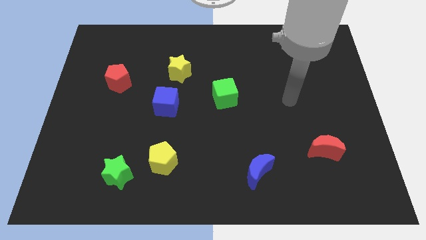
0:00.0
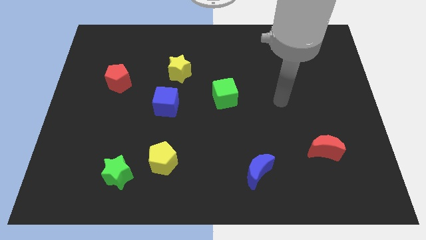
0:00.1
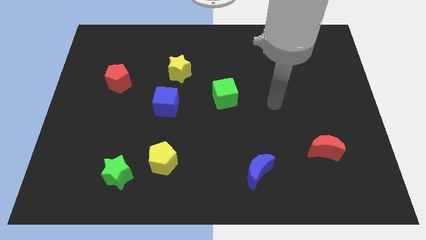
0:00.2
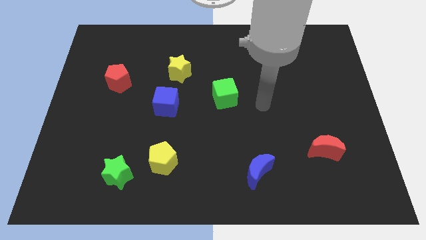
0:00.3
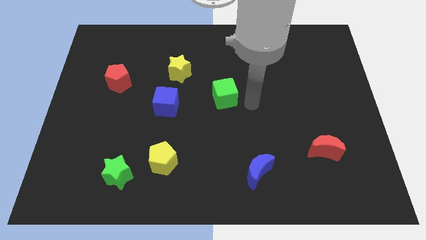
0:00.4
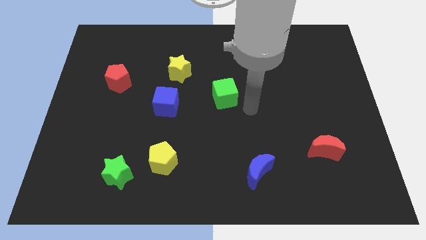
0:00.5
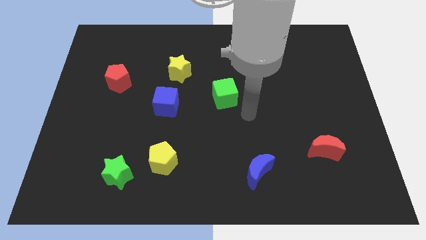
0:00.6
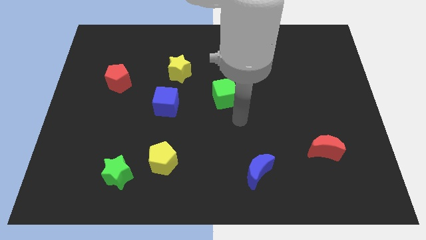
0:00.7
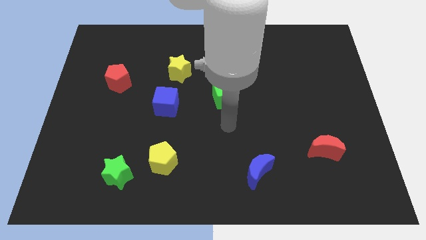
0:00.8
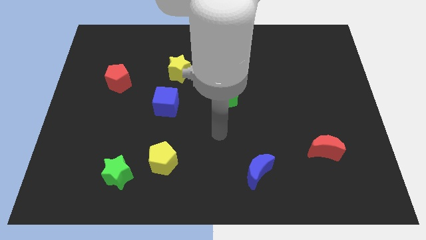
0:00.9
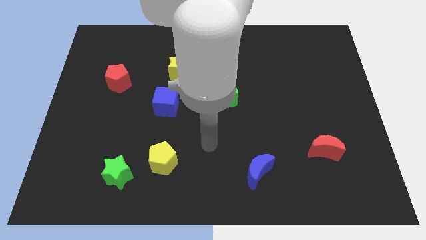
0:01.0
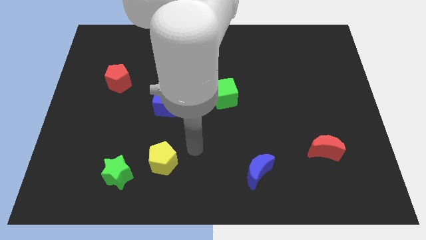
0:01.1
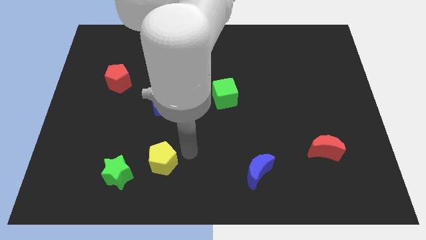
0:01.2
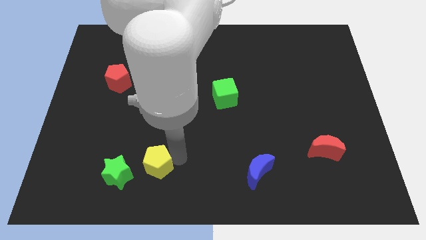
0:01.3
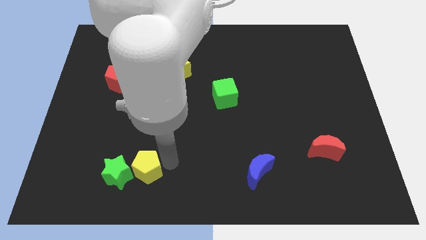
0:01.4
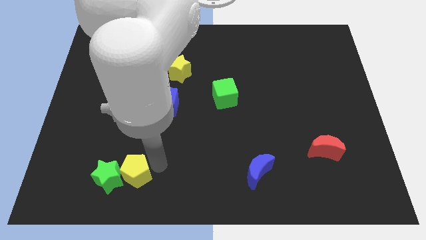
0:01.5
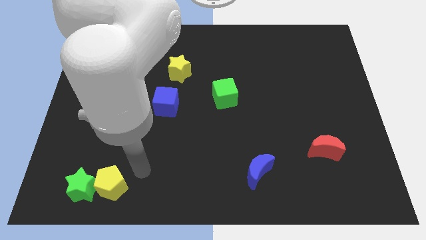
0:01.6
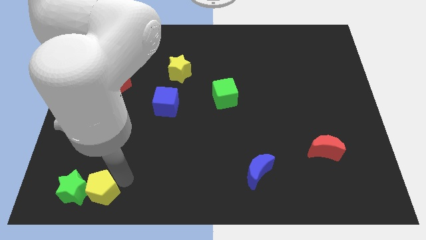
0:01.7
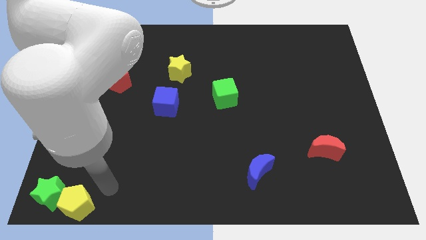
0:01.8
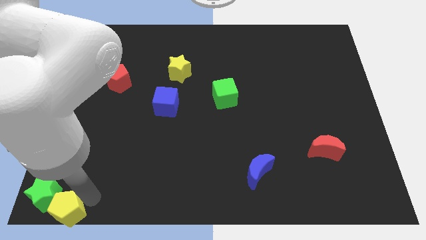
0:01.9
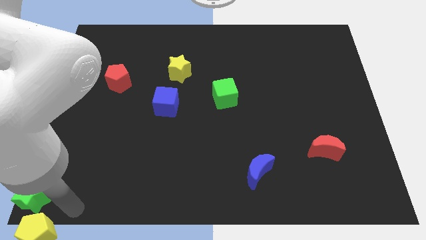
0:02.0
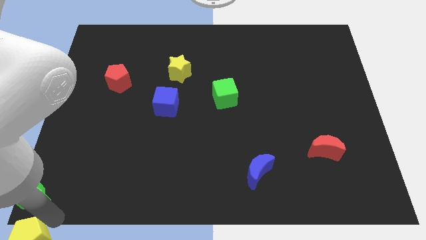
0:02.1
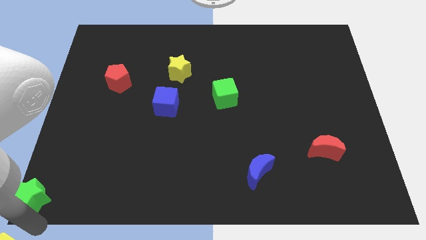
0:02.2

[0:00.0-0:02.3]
move the green star away from the yellow pentagon

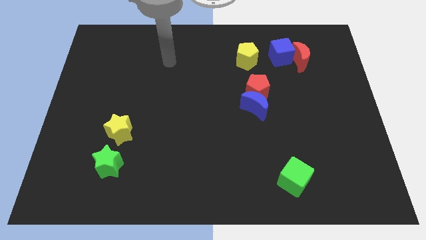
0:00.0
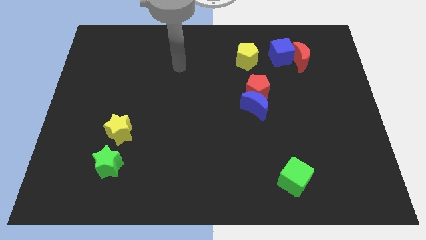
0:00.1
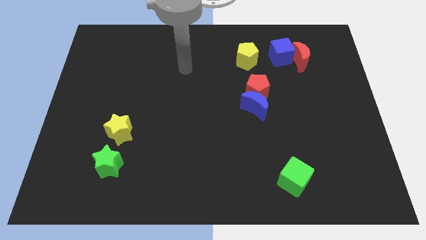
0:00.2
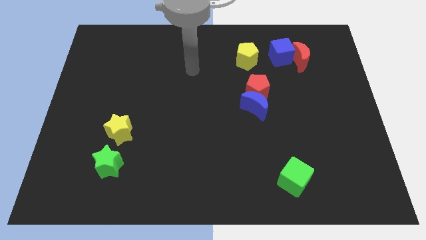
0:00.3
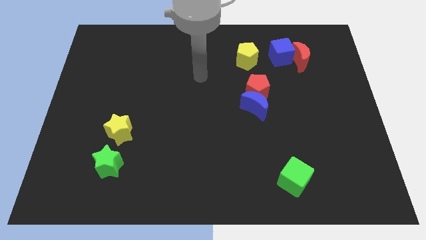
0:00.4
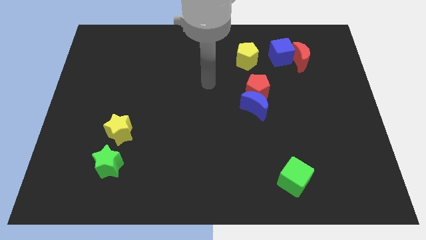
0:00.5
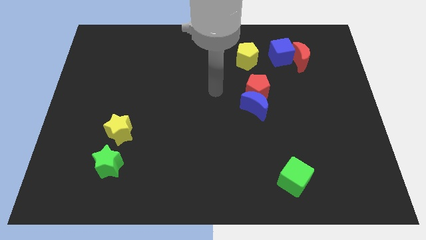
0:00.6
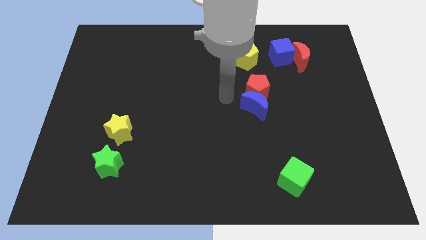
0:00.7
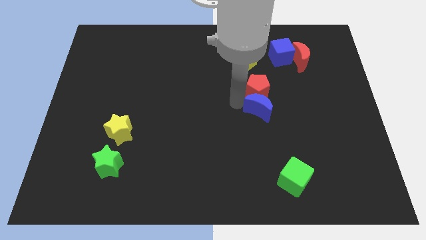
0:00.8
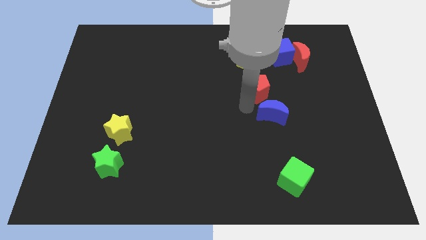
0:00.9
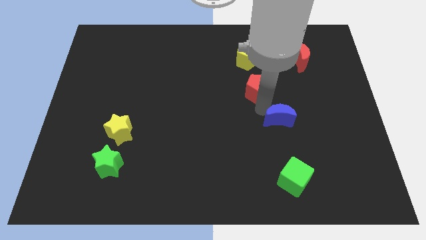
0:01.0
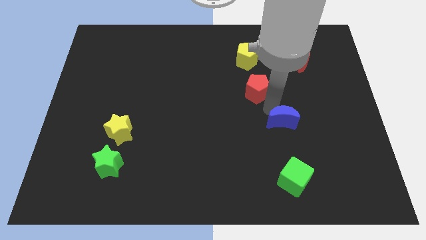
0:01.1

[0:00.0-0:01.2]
pull the red pentagon apart from the blue moon

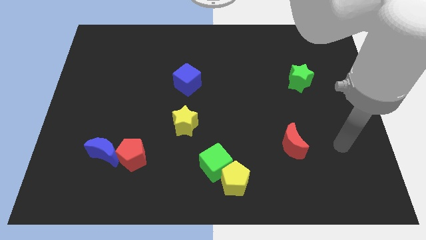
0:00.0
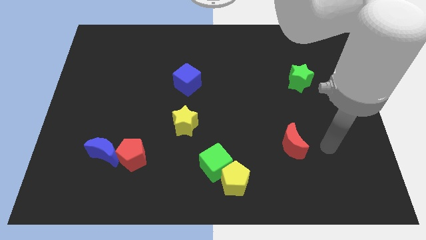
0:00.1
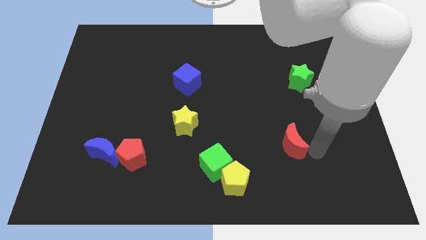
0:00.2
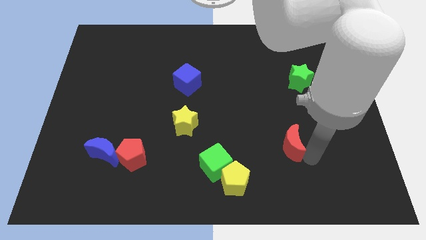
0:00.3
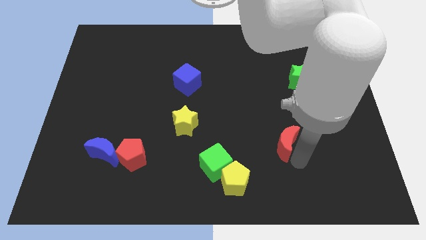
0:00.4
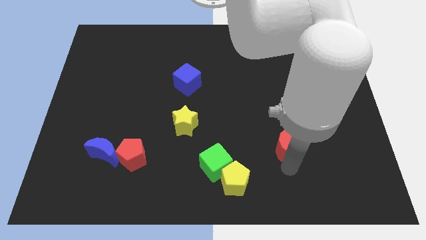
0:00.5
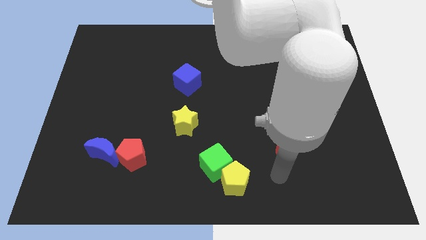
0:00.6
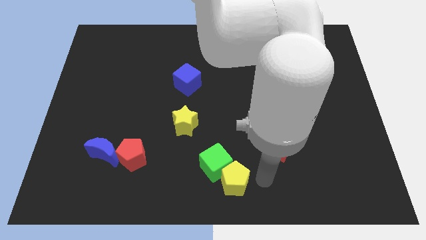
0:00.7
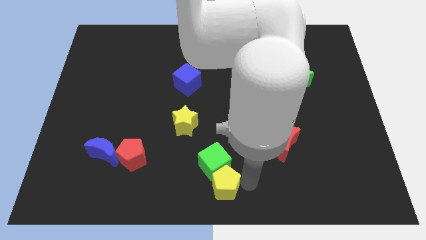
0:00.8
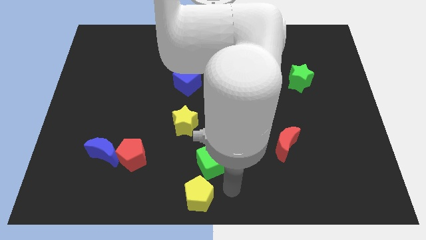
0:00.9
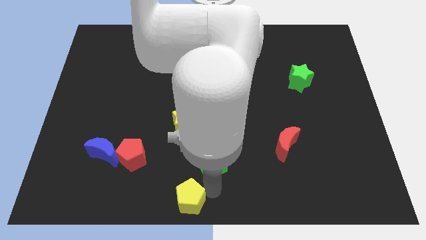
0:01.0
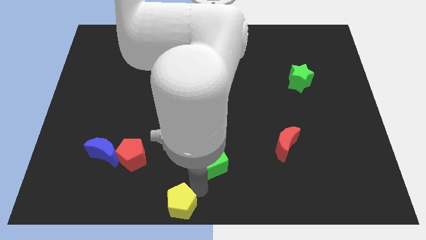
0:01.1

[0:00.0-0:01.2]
move the green cube away from the yellow pentagon

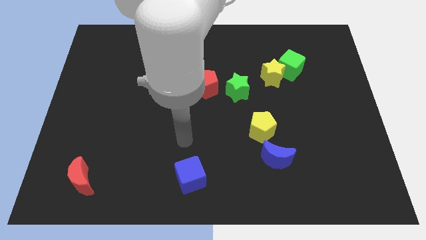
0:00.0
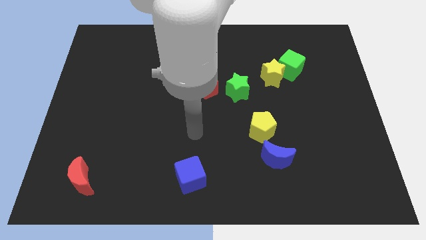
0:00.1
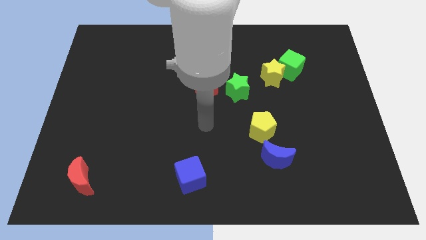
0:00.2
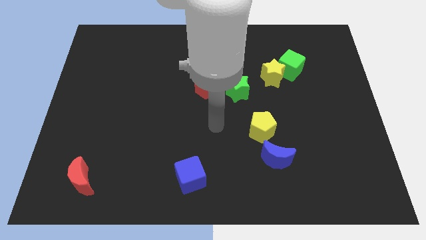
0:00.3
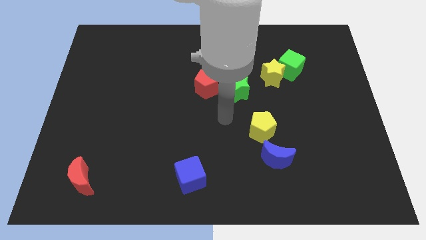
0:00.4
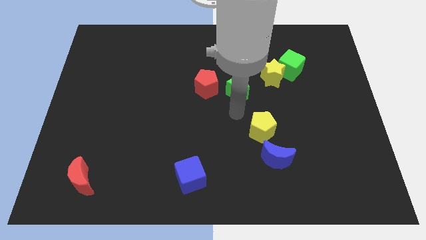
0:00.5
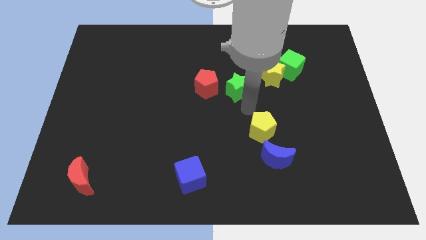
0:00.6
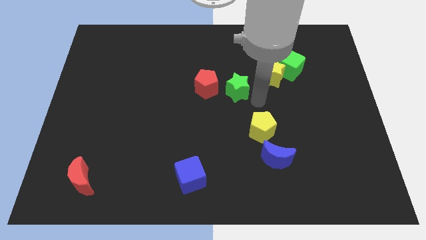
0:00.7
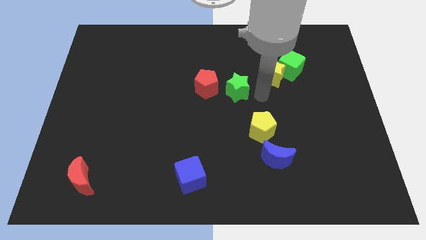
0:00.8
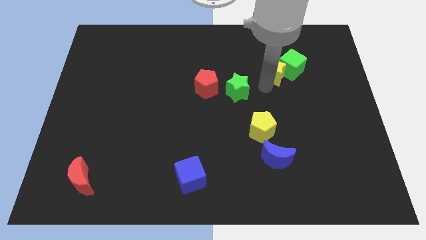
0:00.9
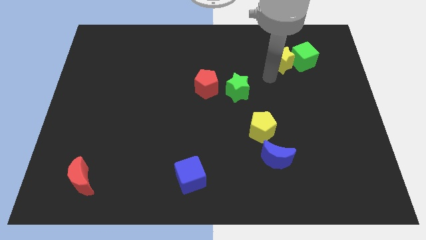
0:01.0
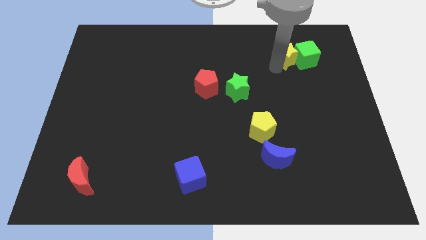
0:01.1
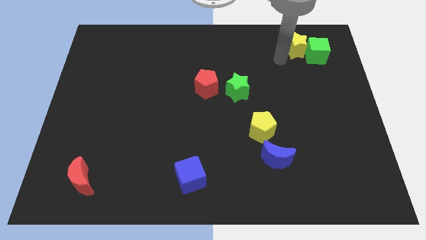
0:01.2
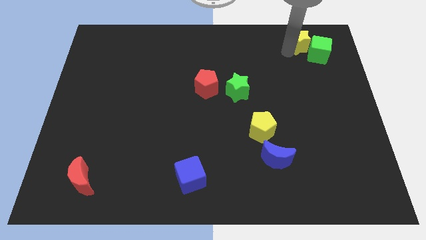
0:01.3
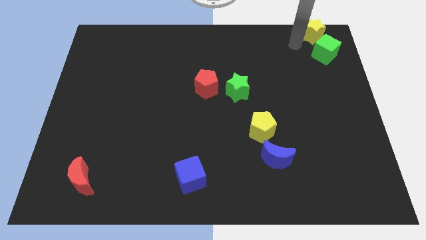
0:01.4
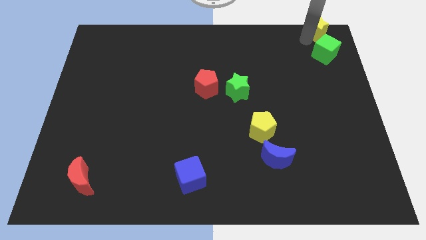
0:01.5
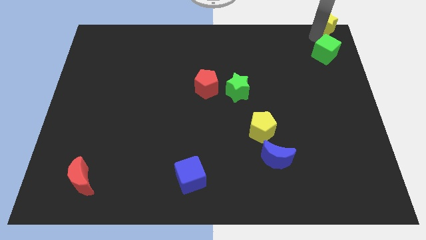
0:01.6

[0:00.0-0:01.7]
pull the green cube apart from the yellow star

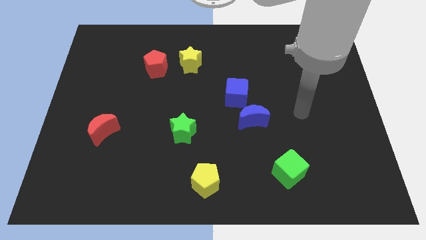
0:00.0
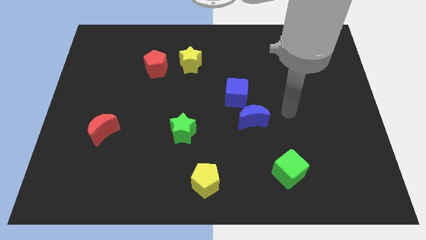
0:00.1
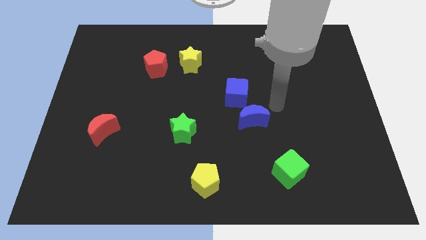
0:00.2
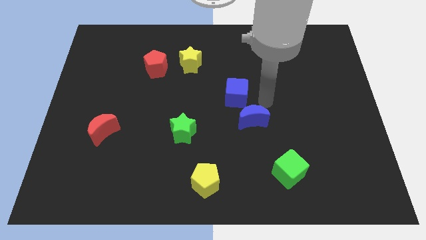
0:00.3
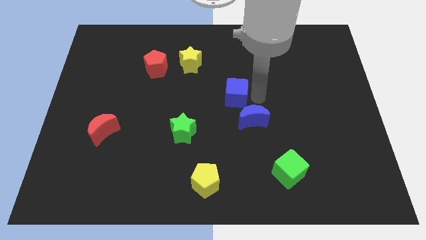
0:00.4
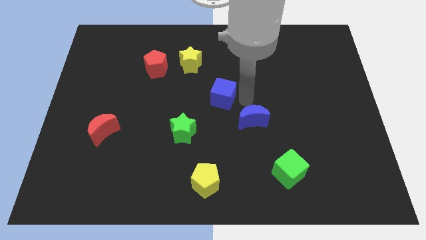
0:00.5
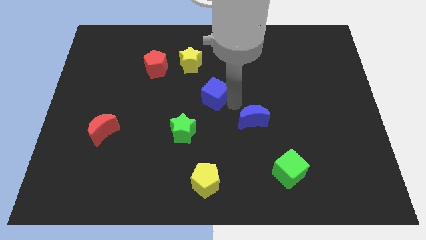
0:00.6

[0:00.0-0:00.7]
move the blue moon away from the blue cube

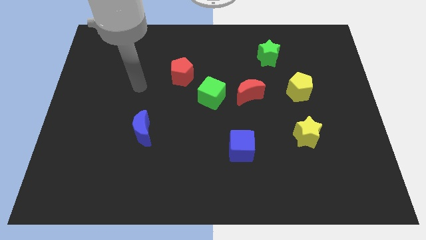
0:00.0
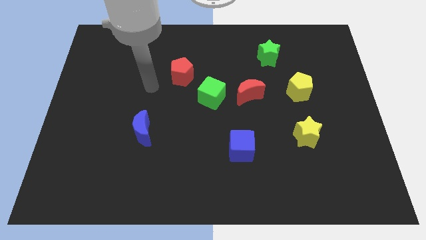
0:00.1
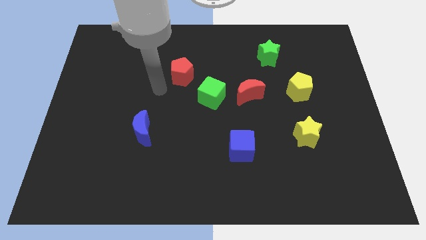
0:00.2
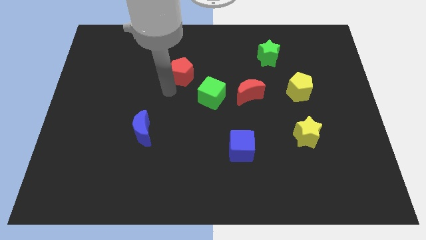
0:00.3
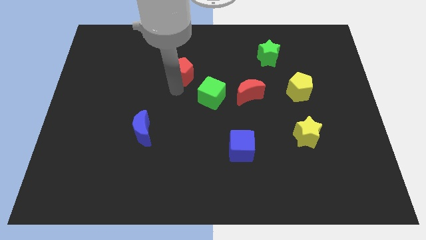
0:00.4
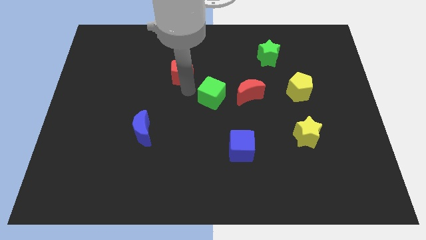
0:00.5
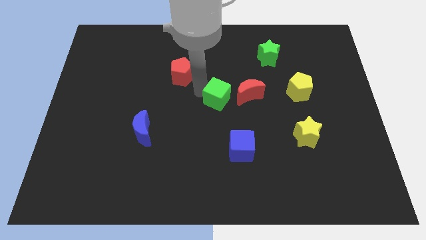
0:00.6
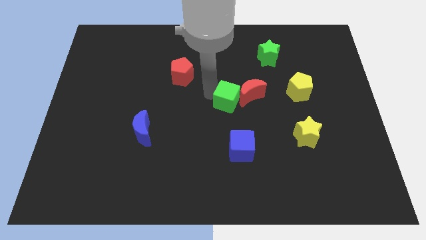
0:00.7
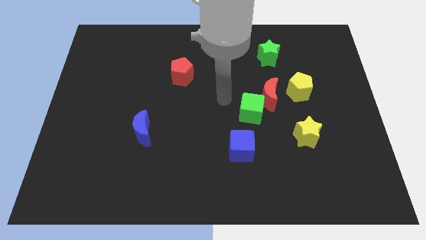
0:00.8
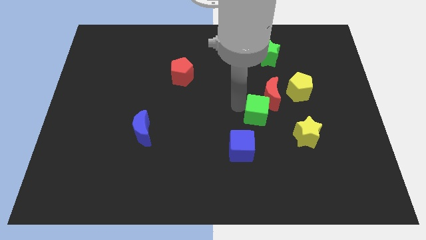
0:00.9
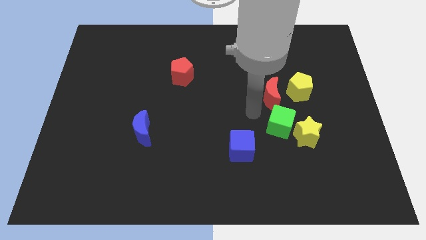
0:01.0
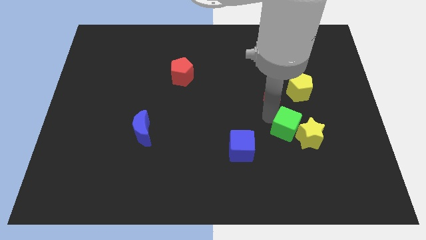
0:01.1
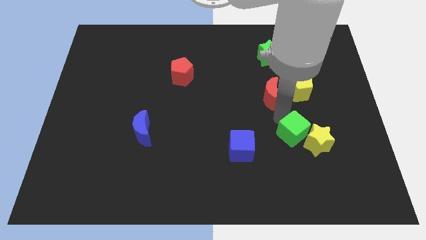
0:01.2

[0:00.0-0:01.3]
pull the red moon apart from the green cube

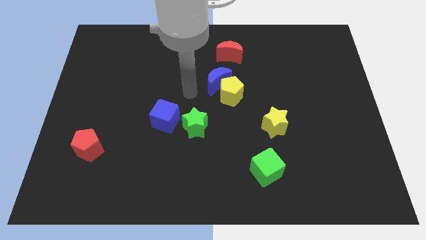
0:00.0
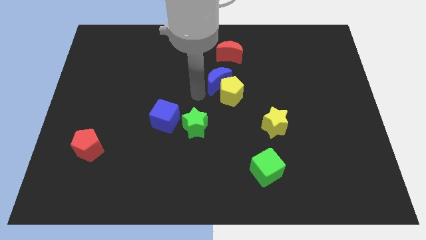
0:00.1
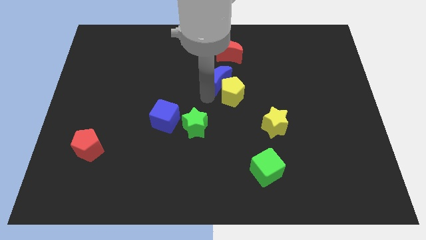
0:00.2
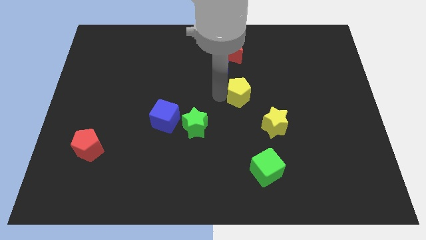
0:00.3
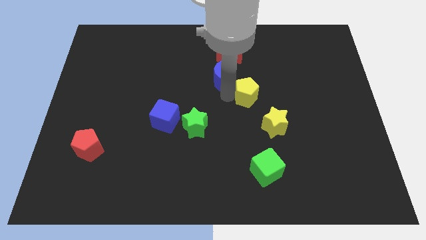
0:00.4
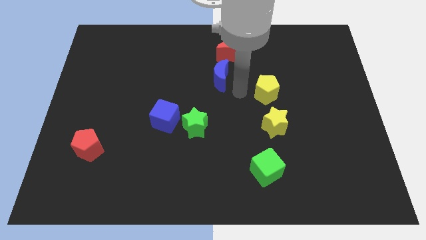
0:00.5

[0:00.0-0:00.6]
move the blue moon away from the yellow pentagon

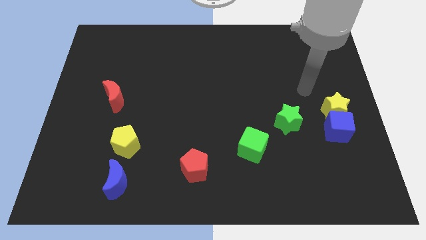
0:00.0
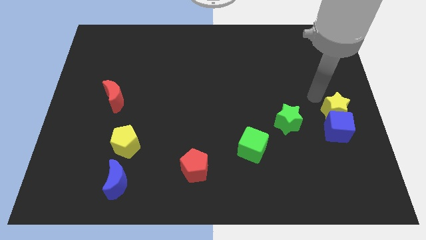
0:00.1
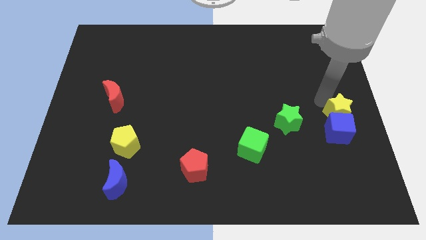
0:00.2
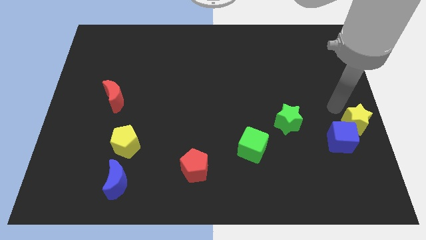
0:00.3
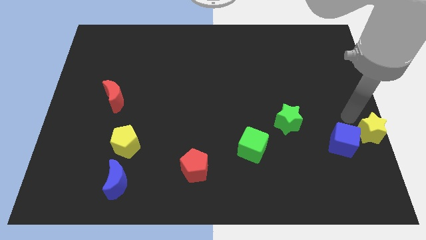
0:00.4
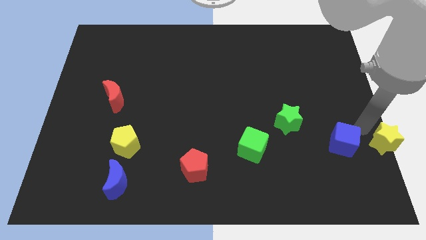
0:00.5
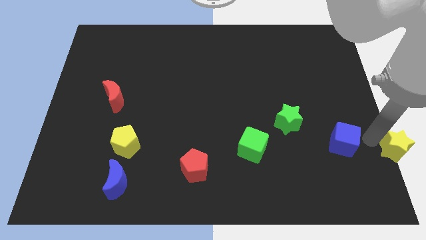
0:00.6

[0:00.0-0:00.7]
separate the blue cube from the yellow star
